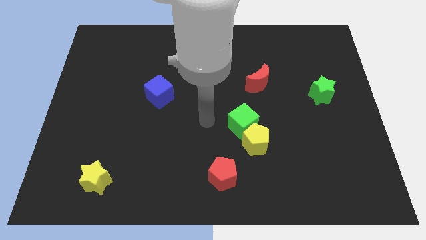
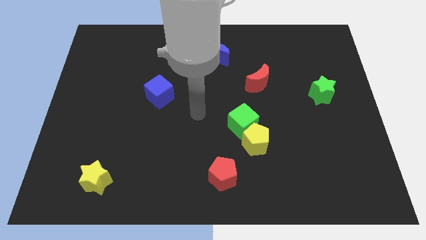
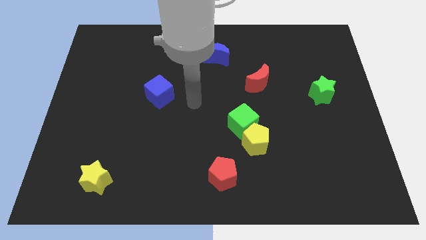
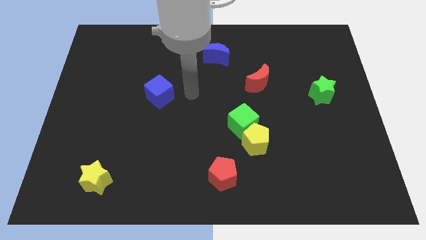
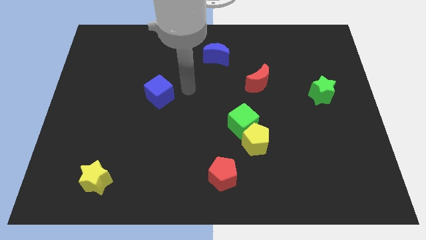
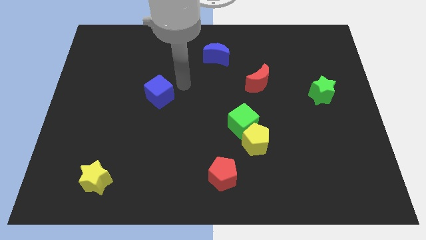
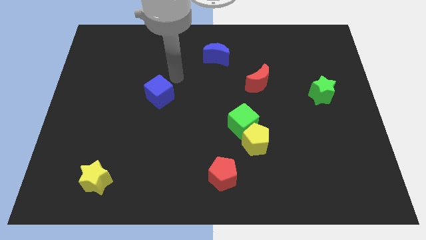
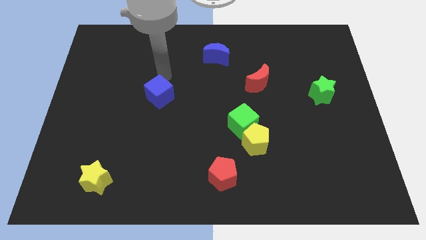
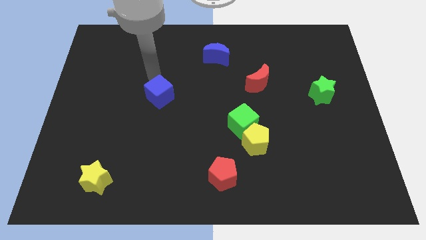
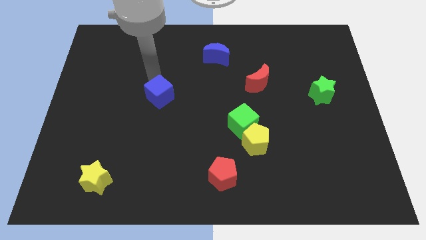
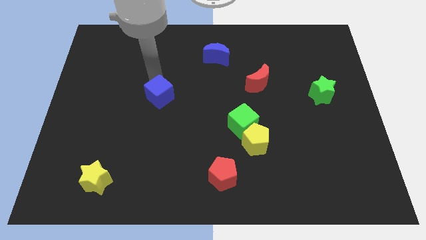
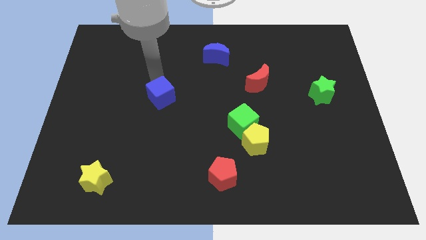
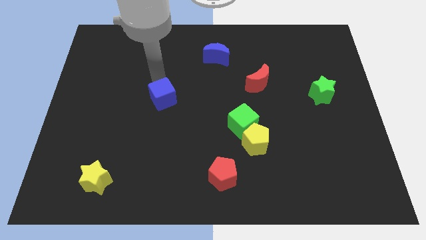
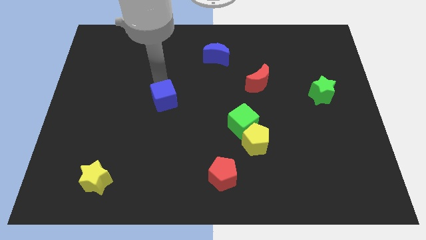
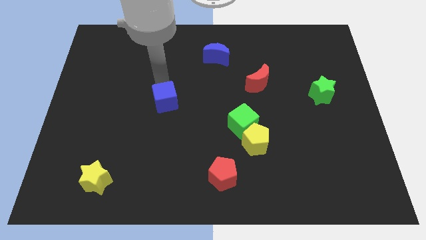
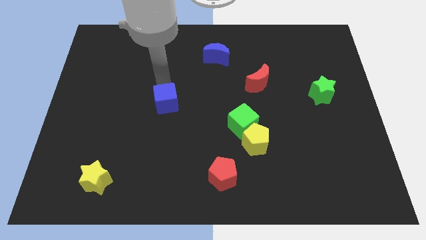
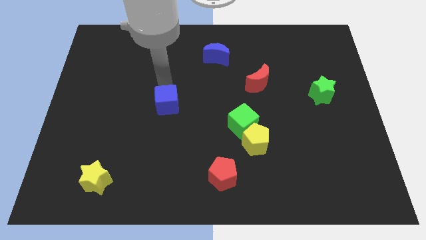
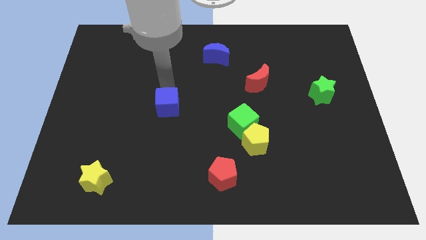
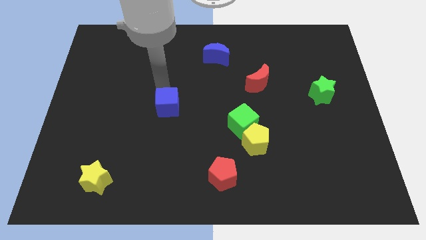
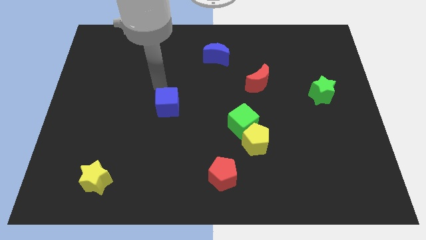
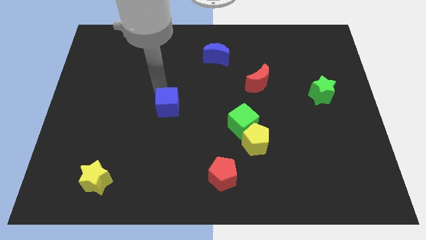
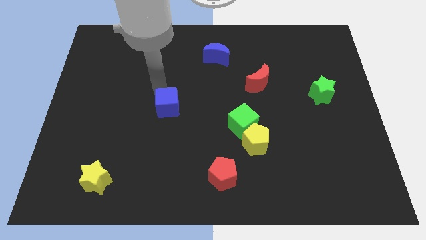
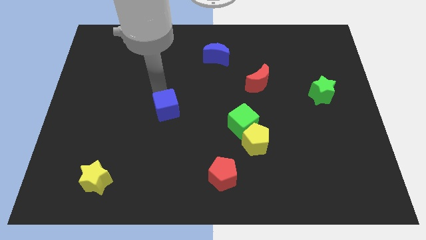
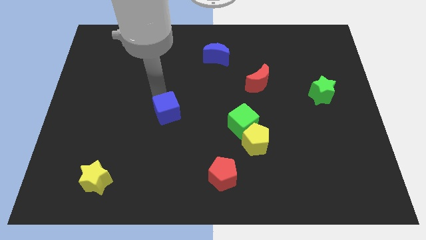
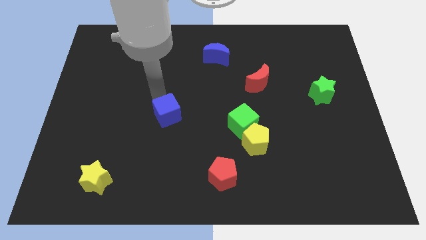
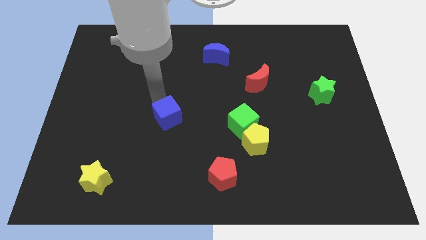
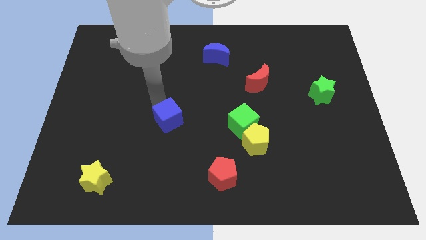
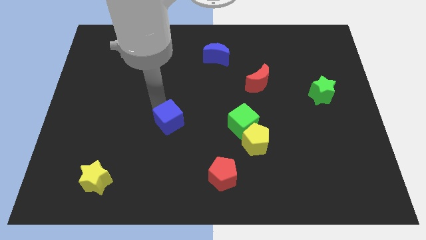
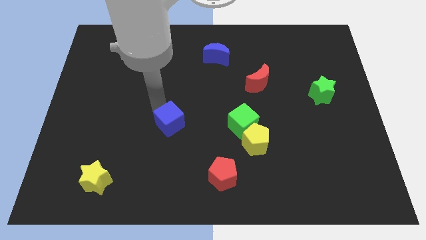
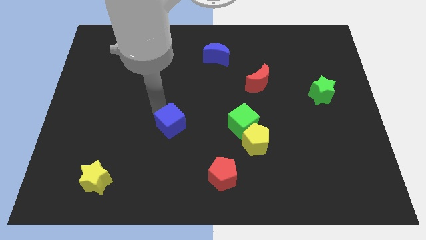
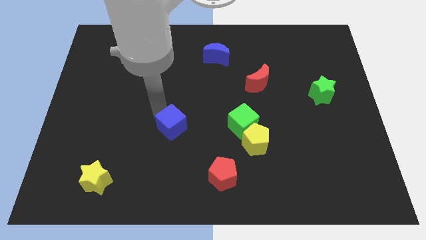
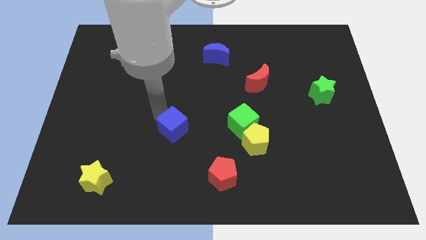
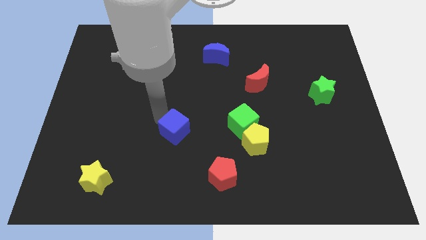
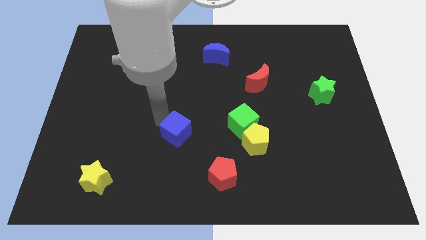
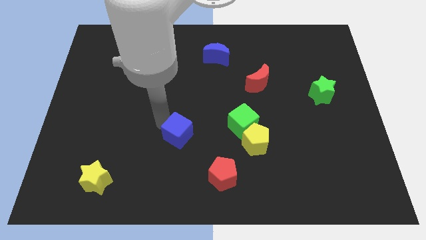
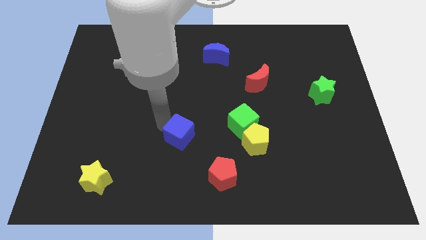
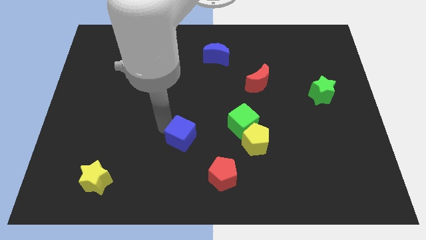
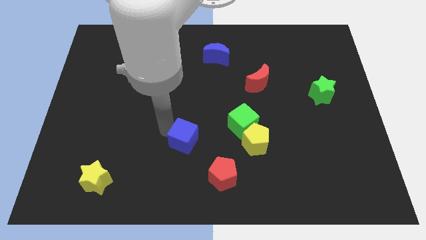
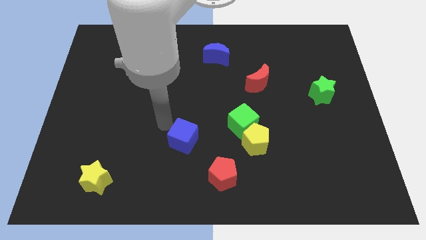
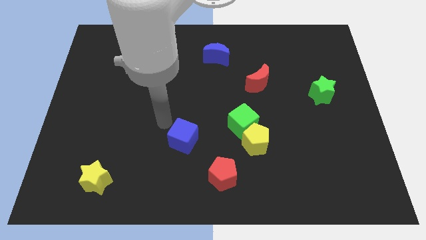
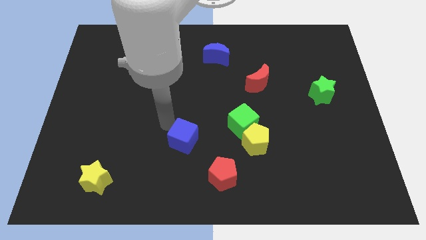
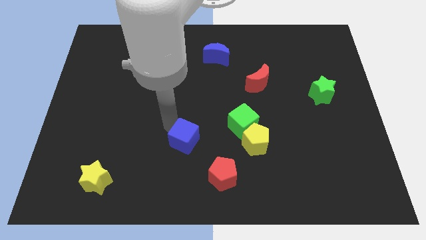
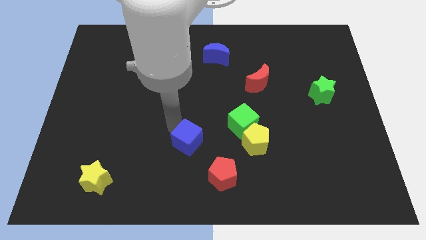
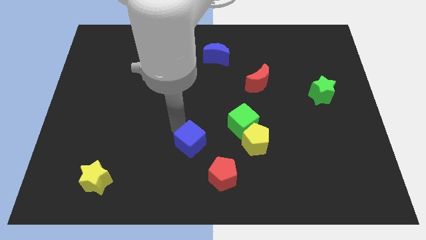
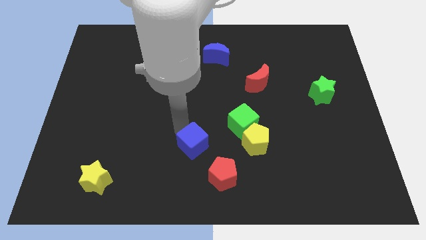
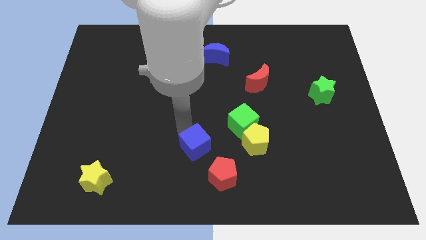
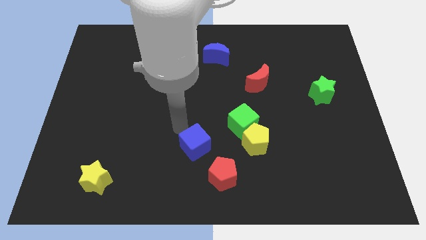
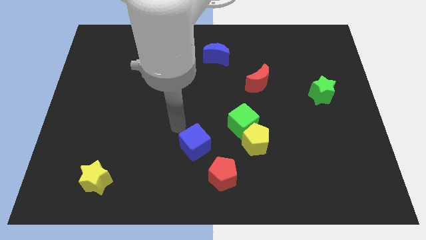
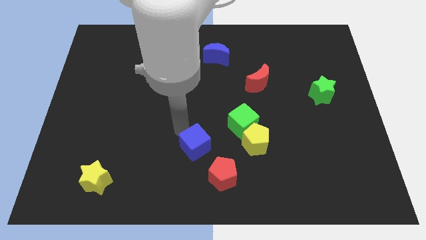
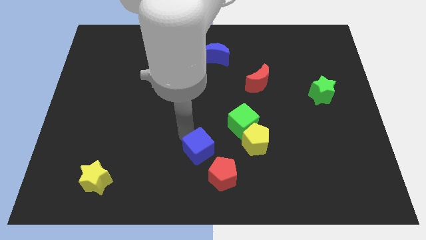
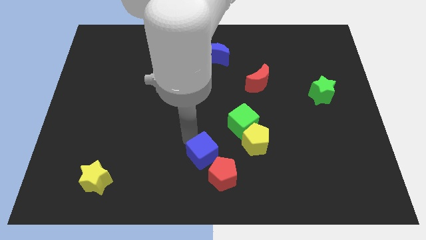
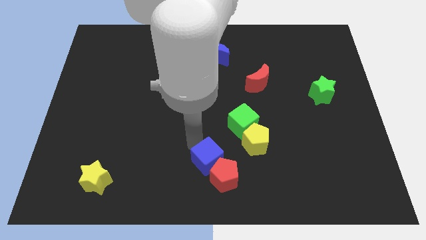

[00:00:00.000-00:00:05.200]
put the blue cube towards the red pentagon

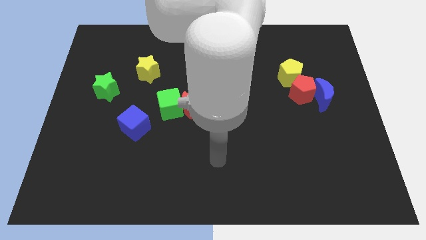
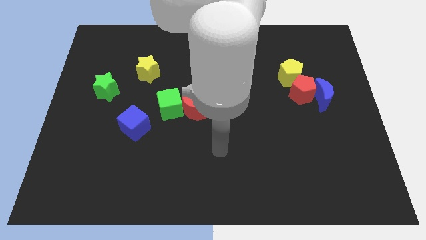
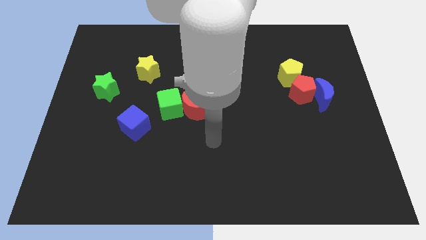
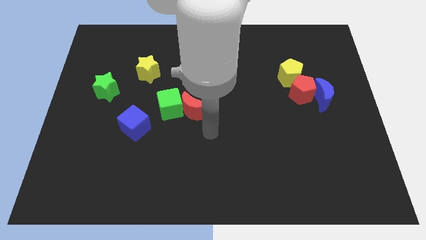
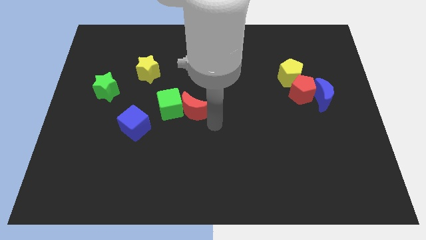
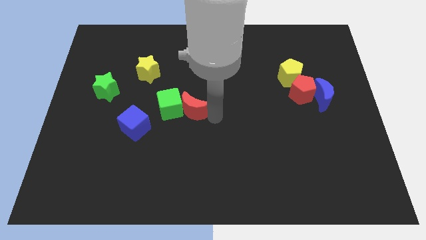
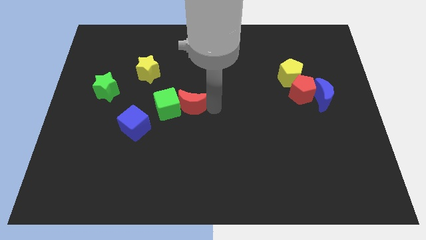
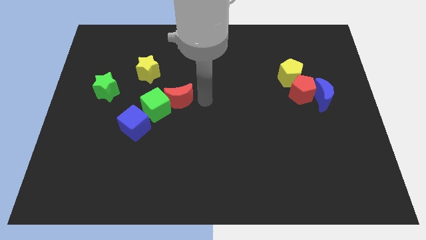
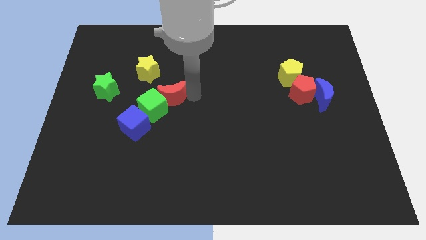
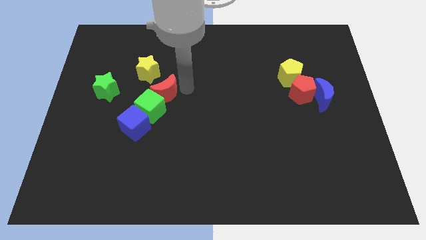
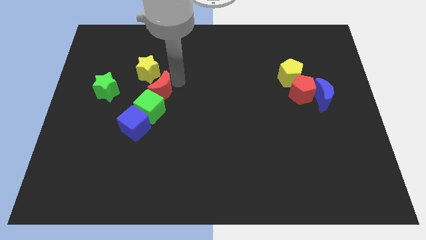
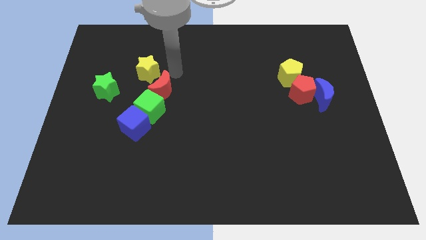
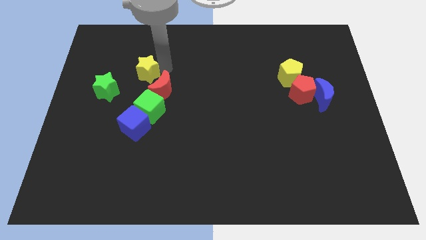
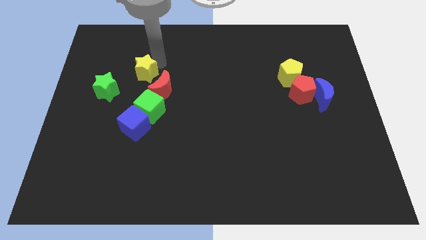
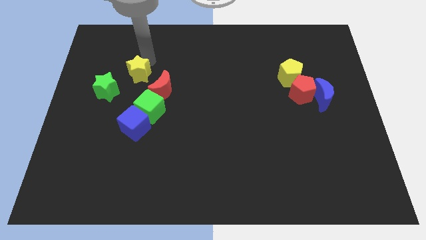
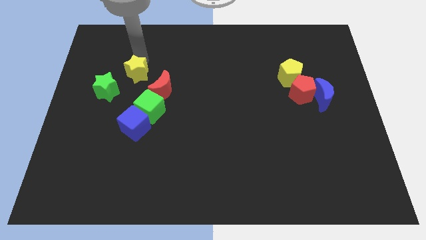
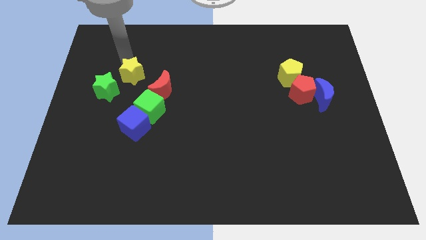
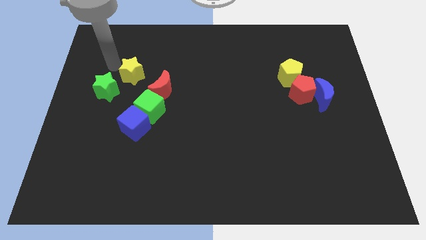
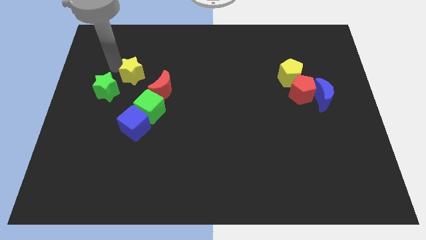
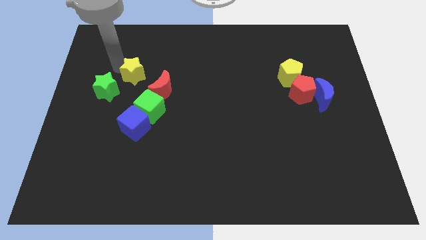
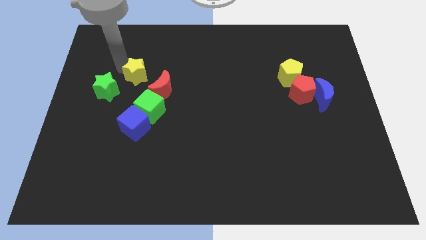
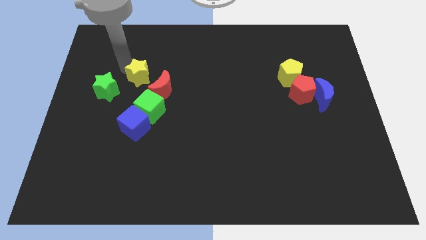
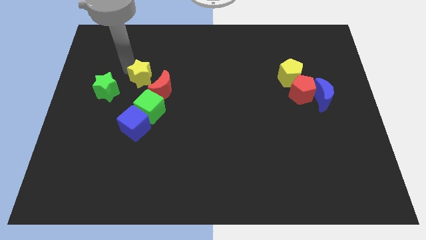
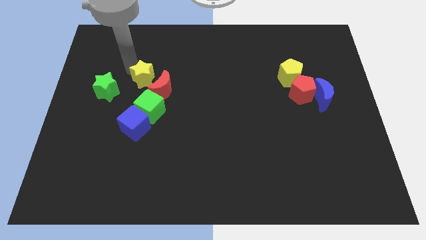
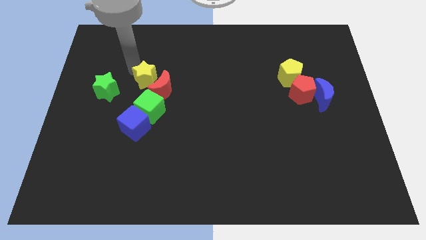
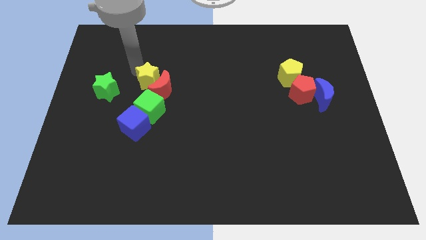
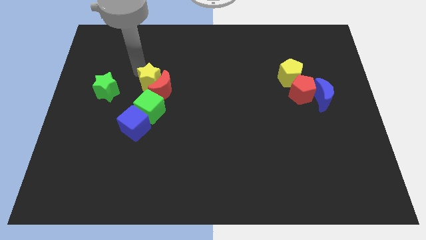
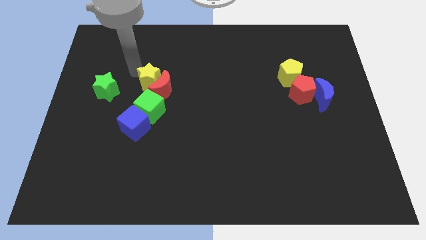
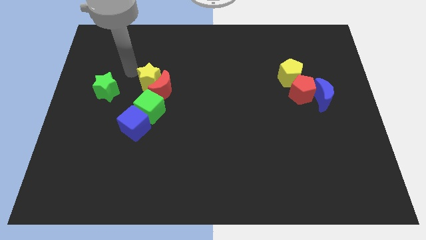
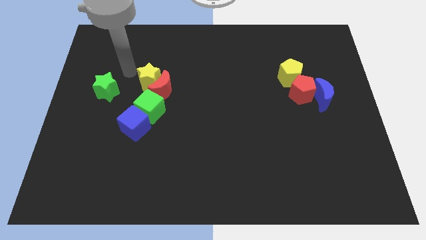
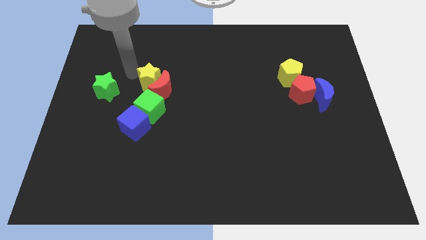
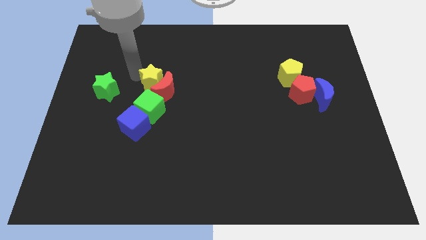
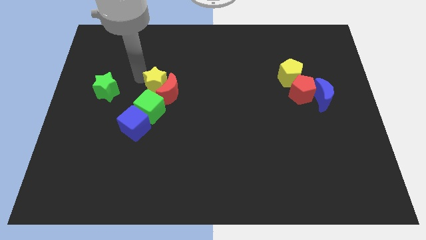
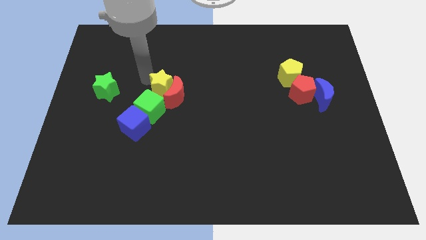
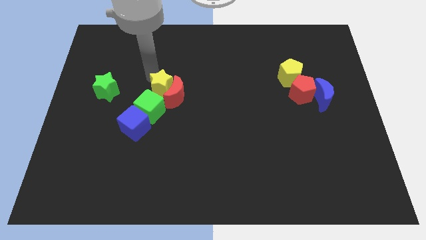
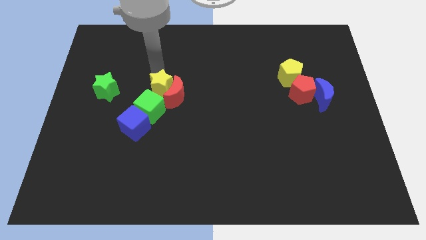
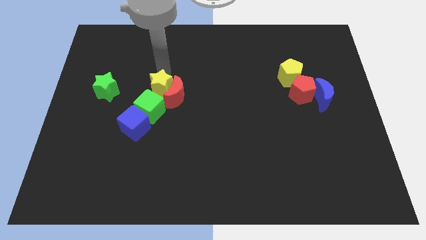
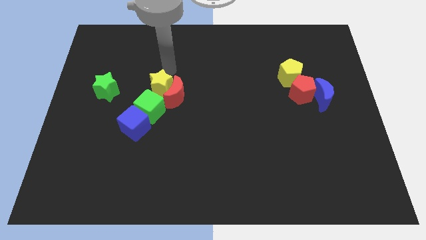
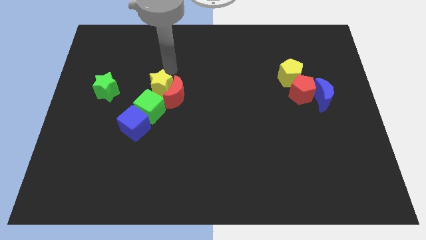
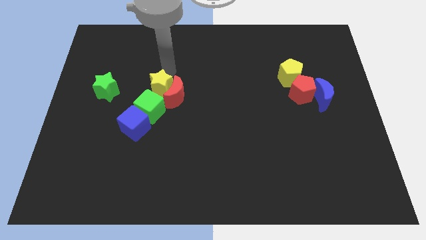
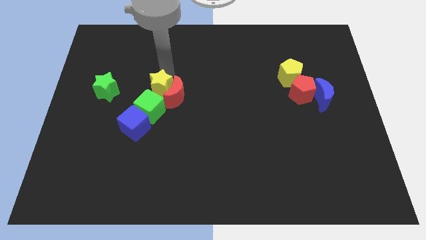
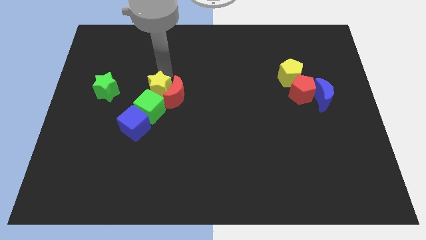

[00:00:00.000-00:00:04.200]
move the yellow star close to the green cube
